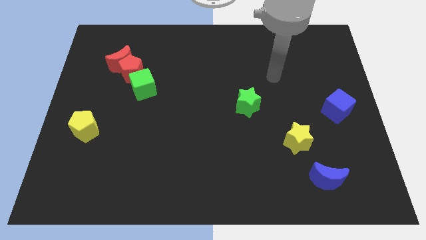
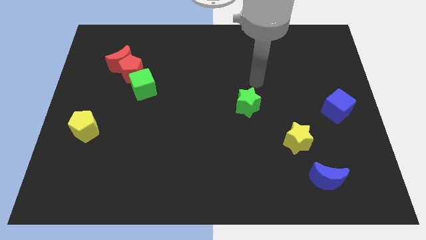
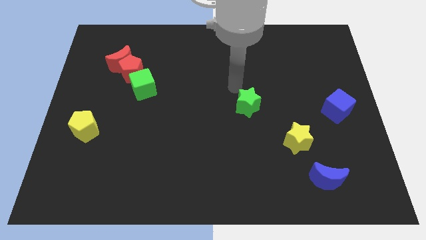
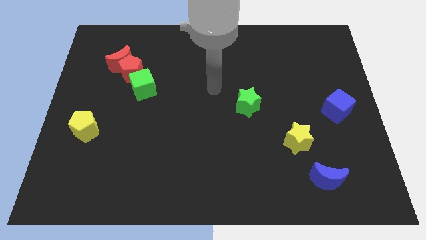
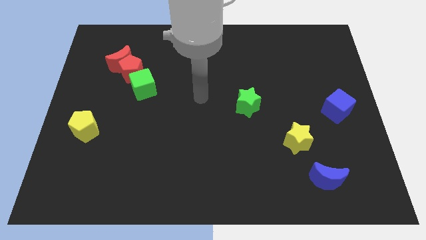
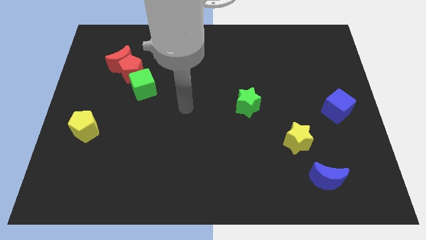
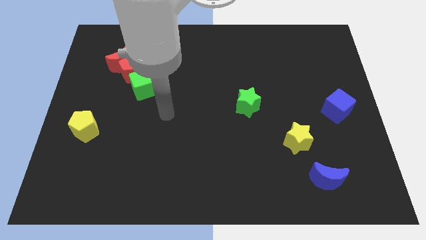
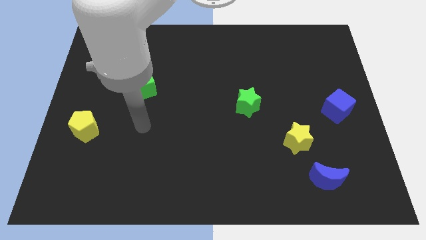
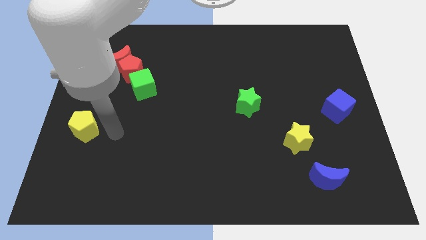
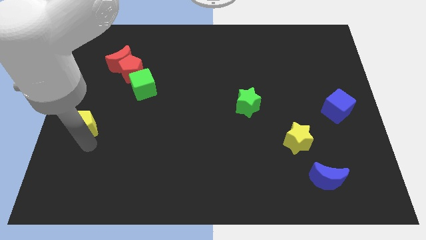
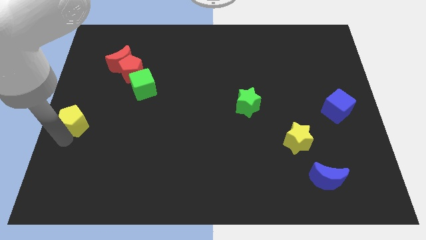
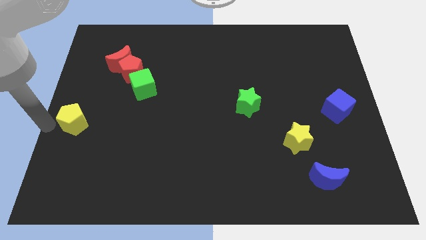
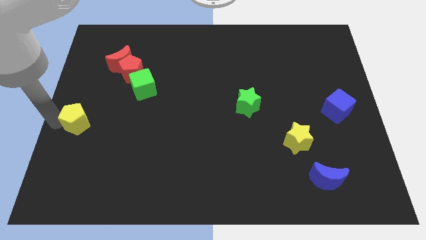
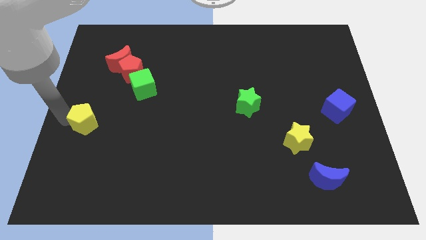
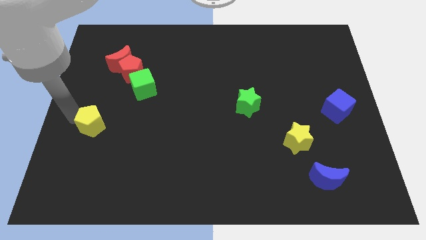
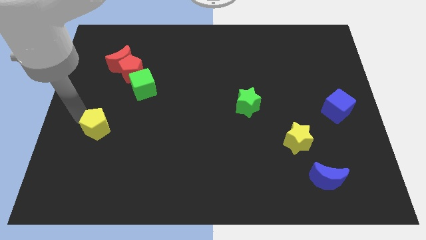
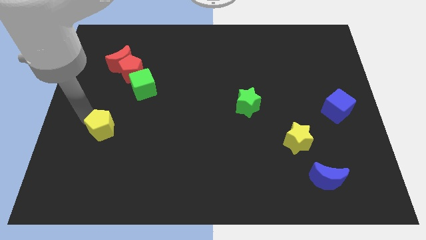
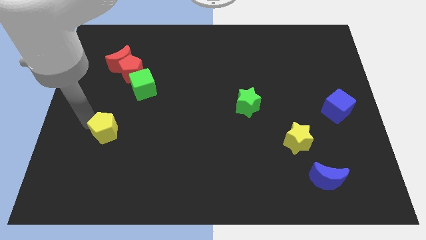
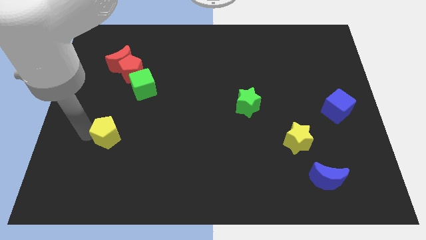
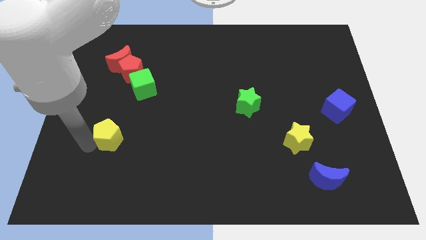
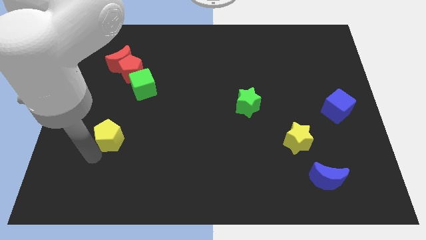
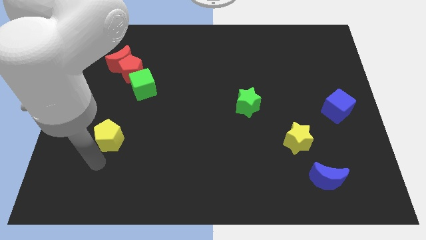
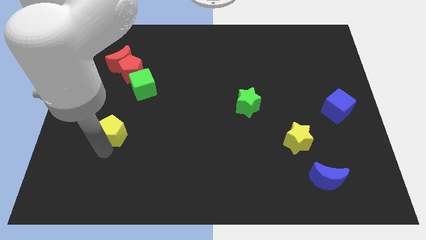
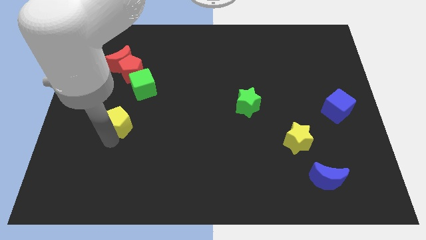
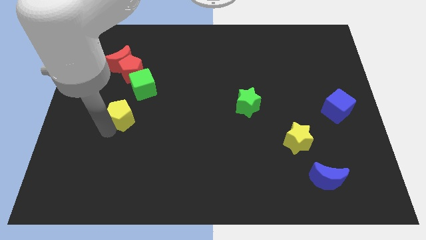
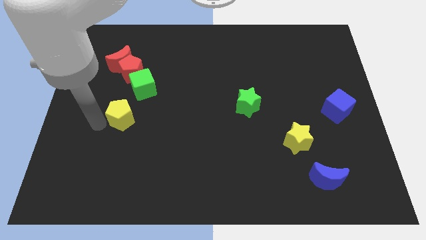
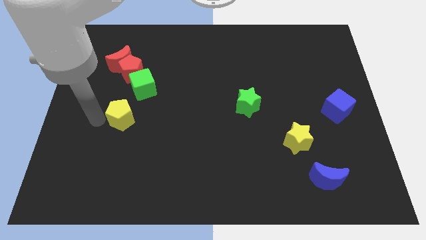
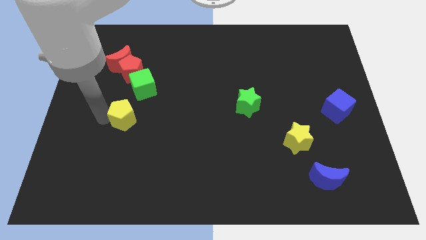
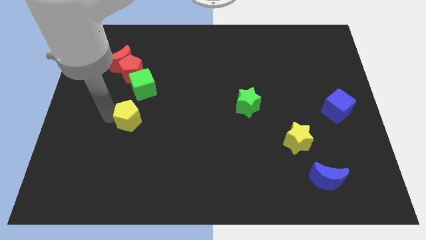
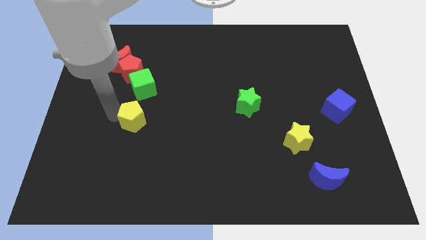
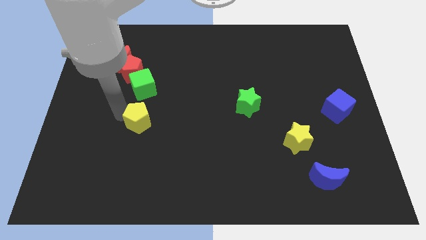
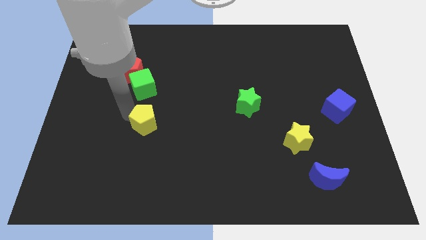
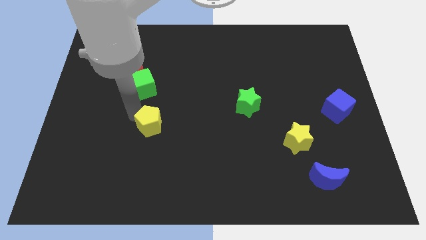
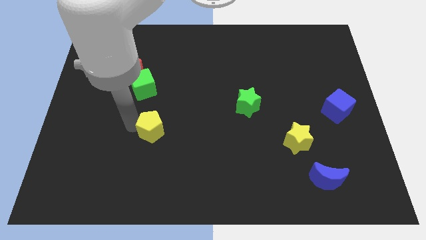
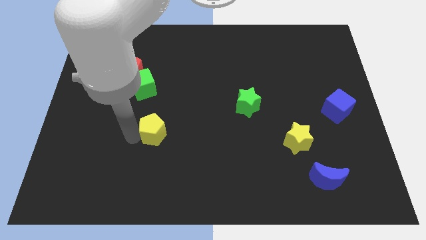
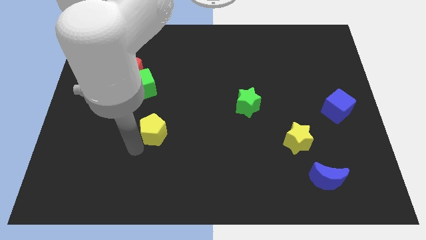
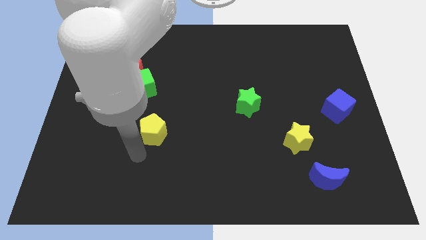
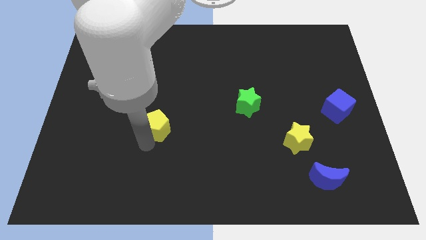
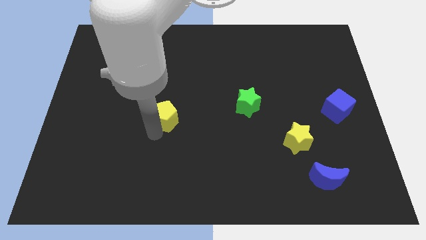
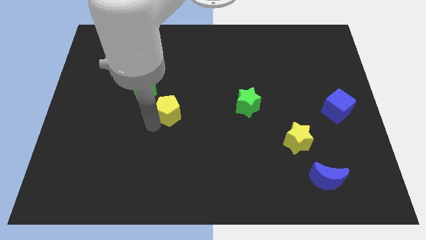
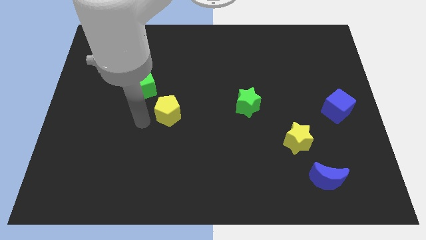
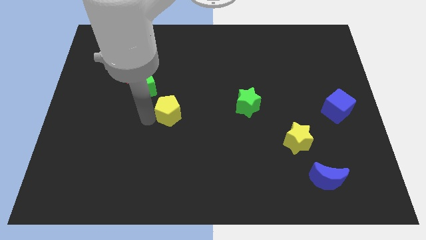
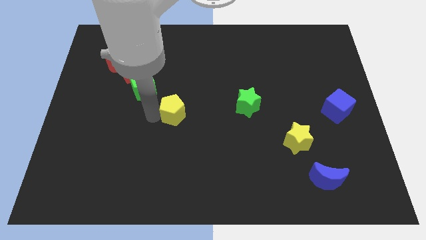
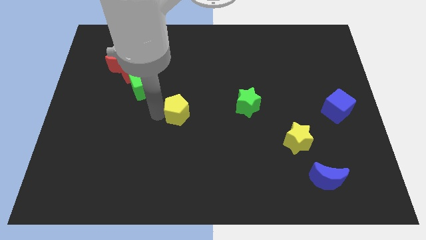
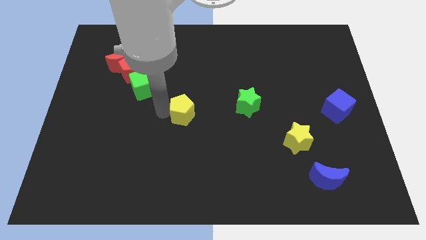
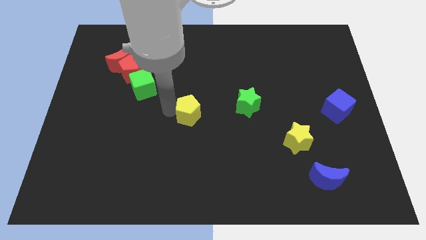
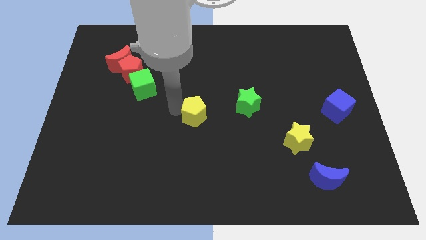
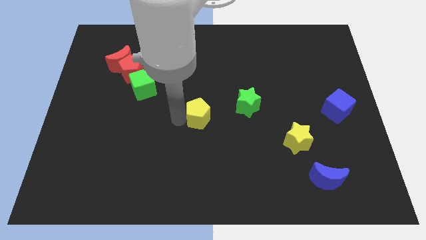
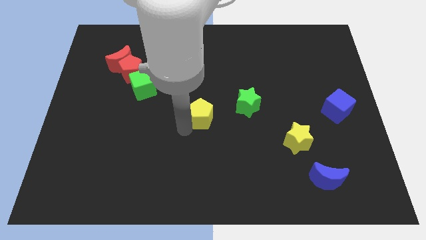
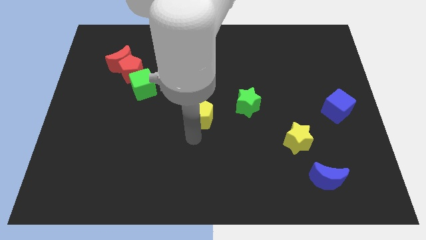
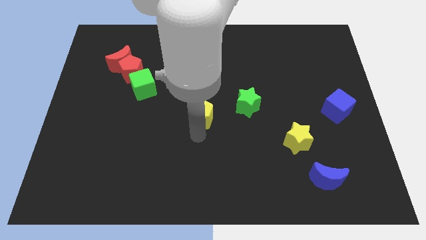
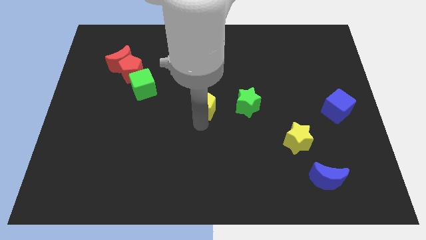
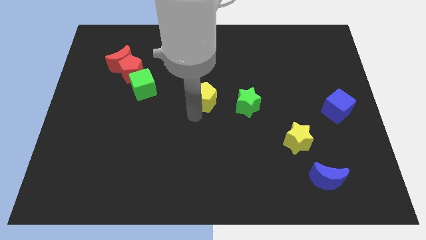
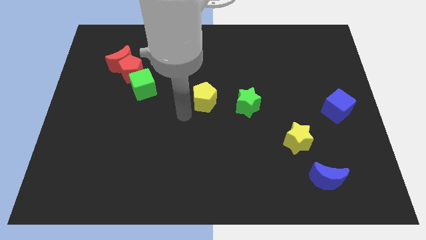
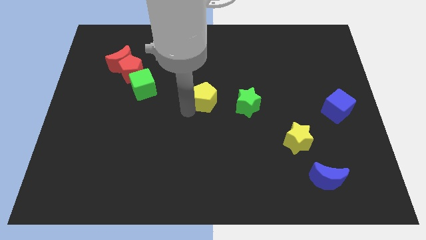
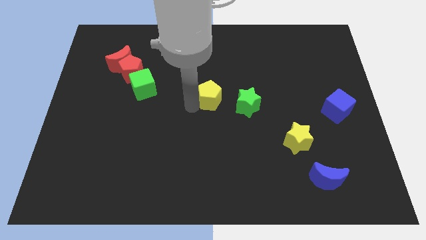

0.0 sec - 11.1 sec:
push the yellow pentagon diagonally up and to the left of the green star
